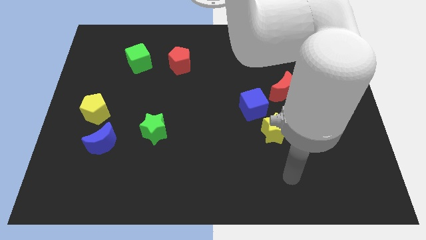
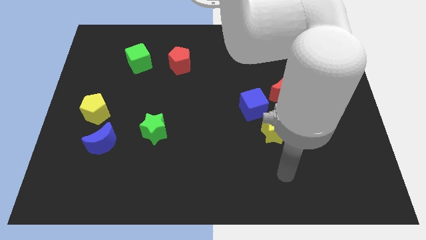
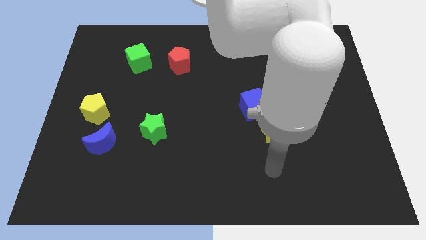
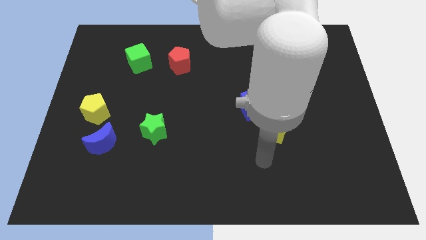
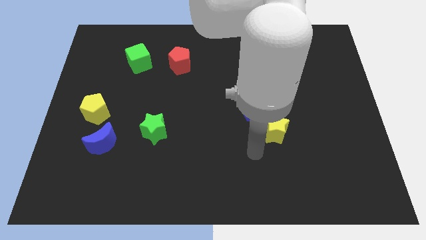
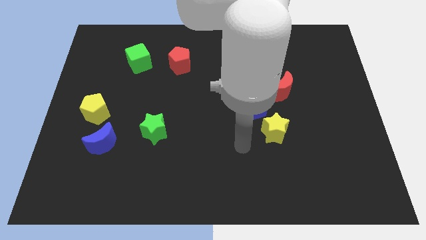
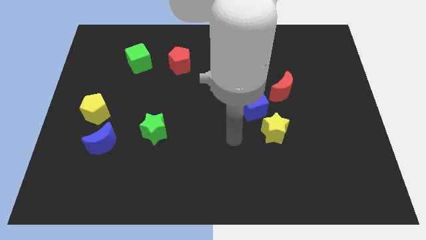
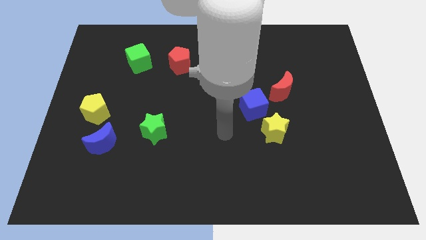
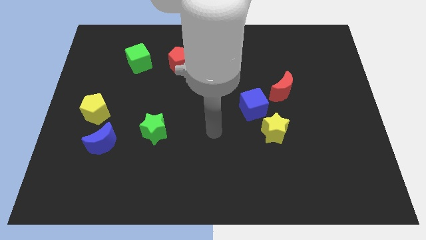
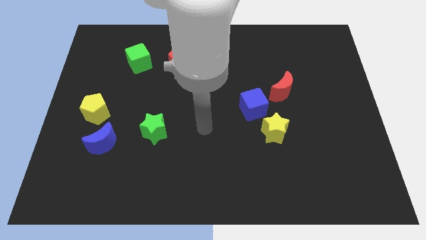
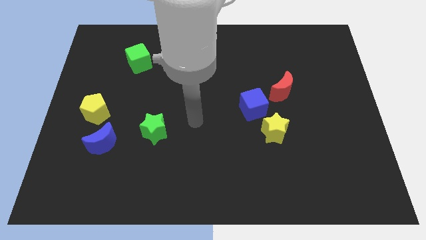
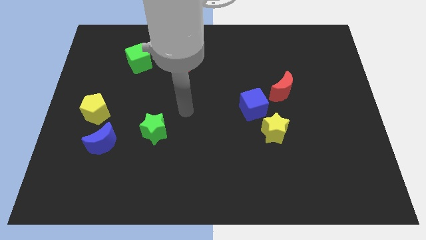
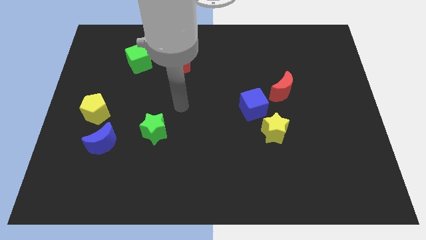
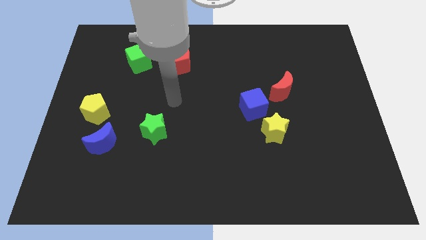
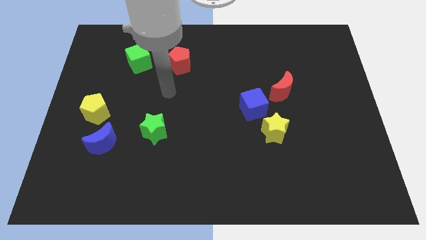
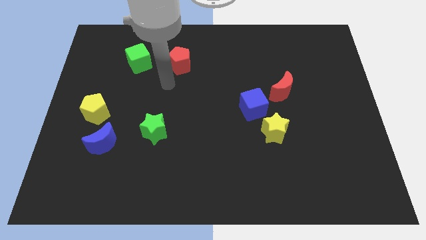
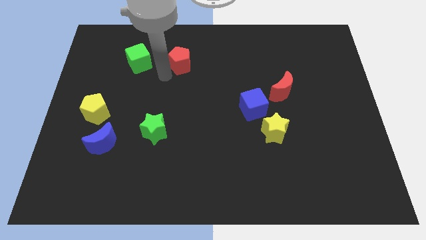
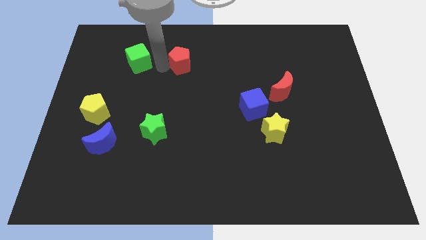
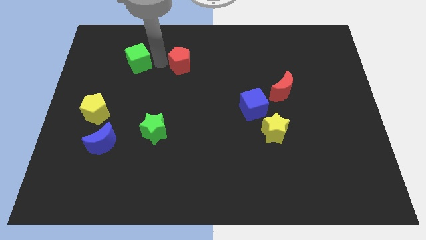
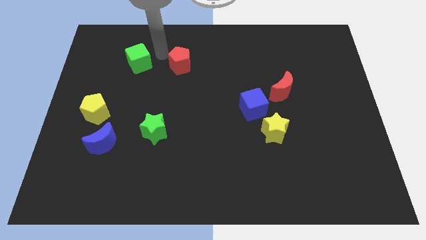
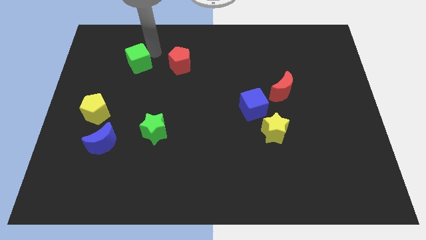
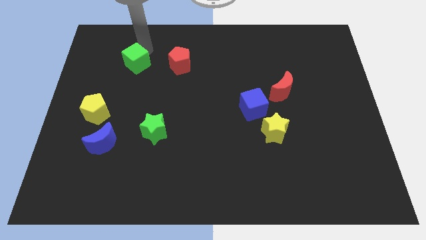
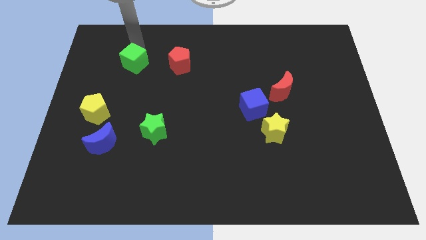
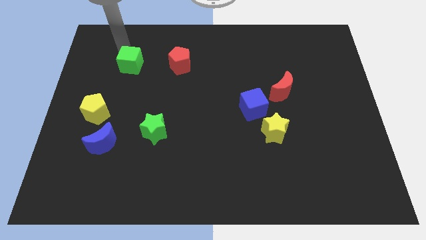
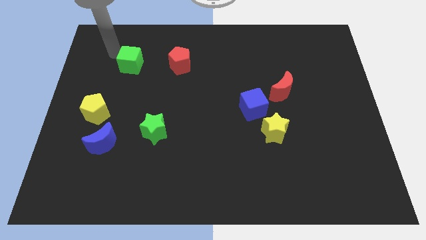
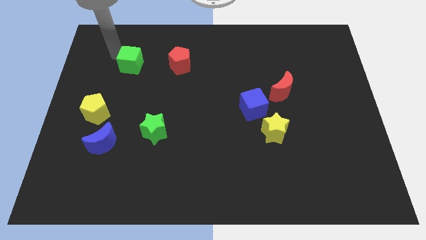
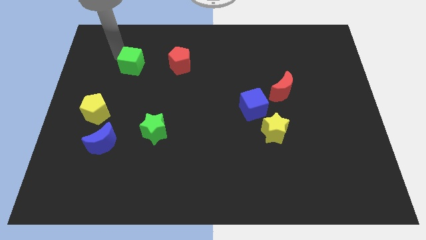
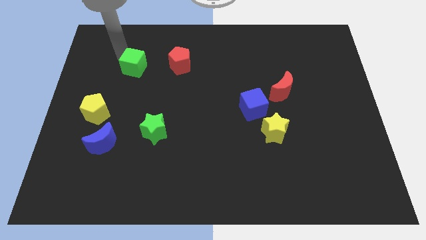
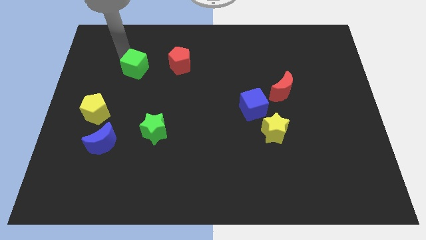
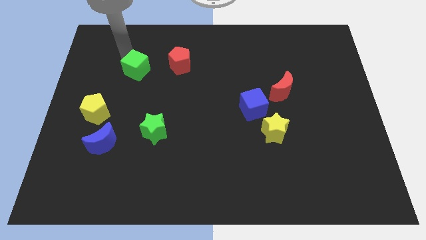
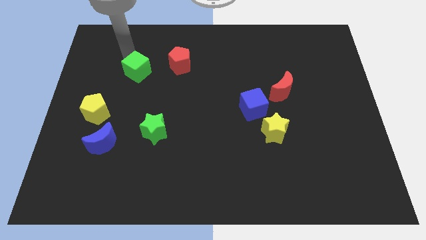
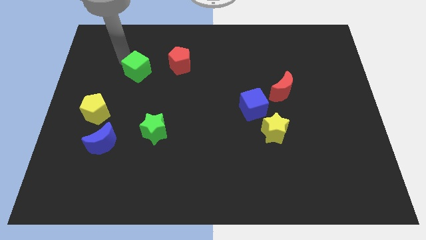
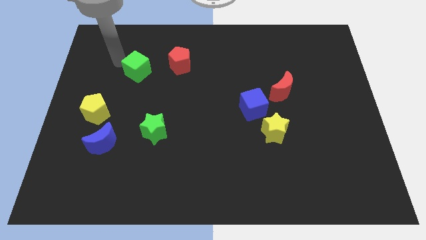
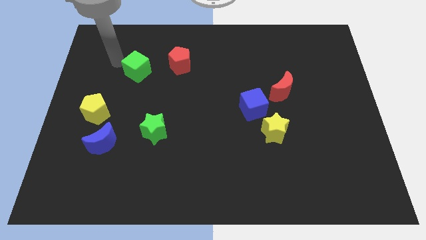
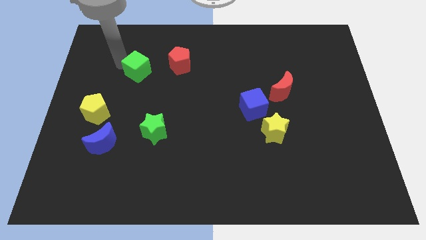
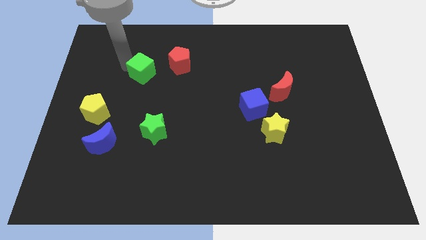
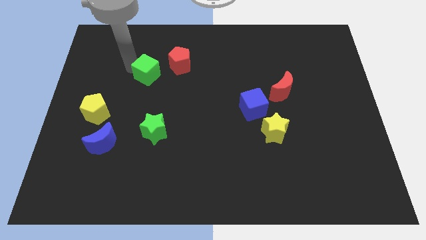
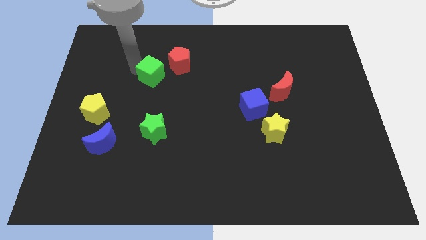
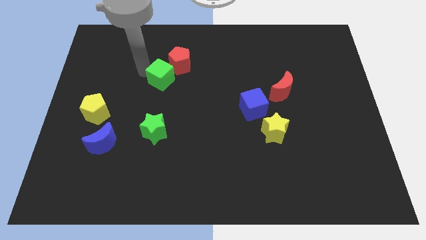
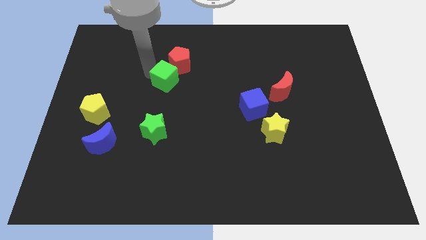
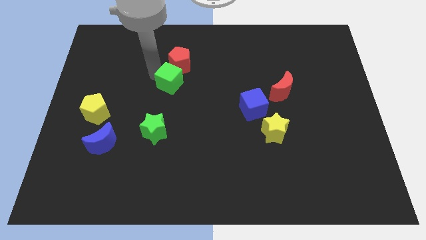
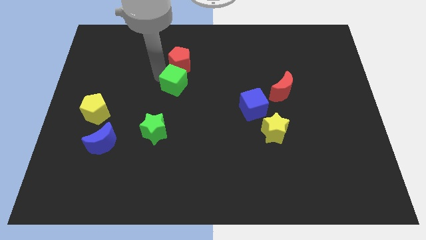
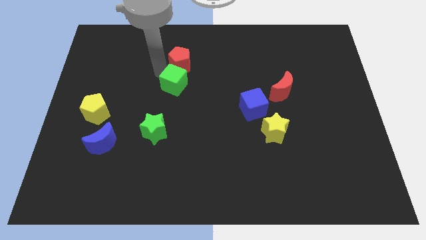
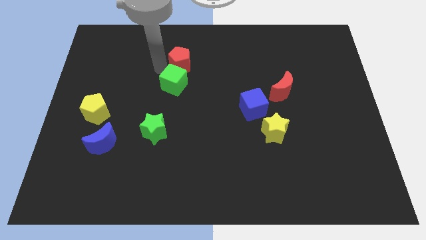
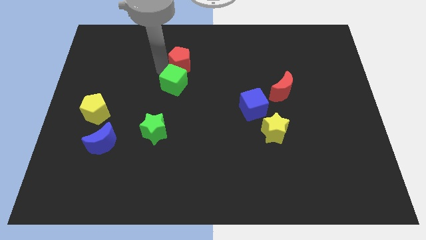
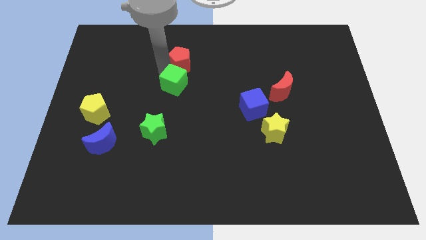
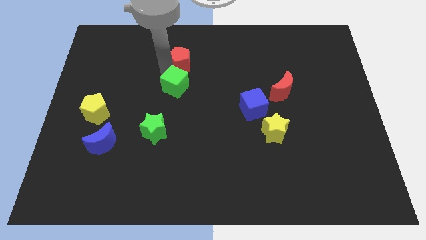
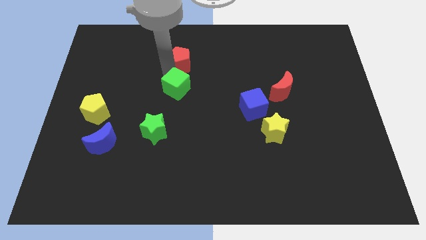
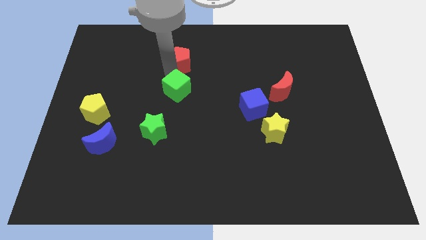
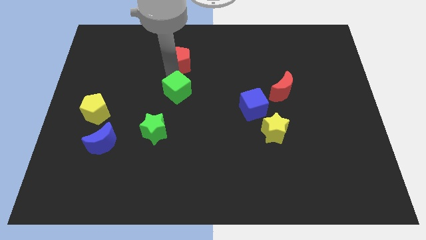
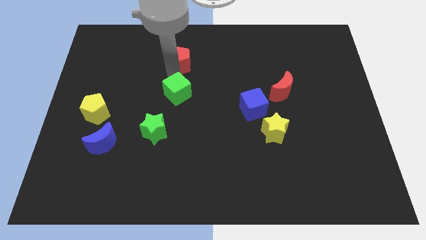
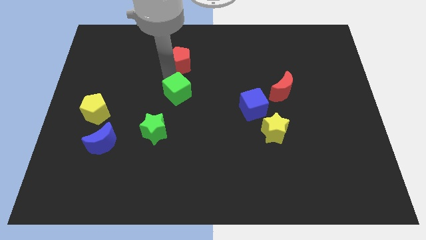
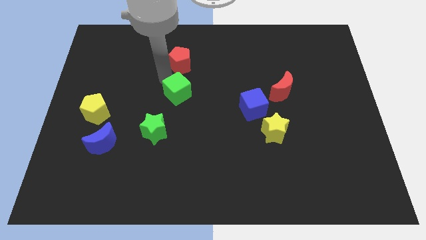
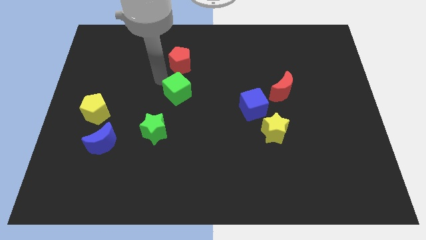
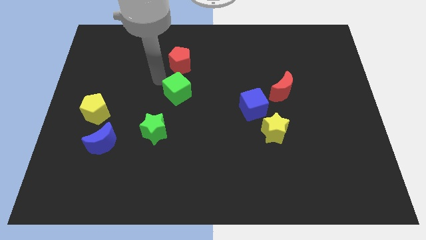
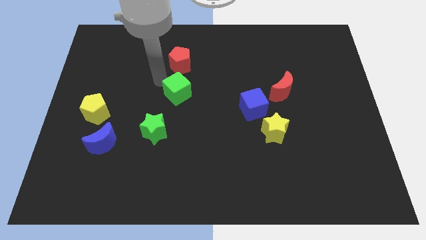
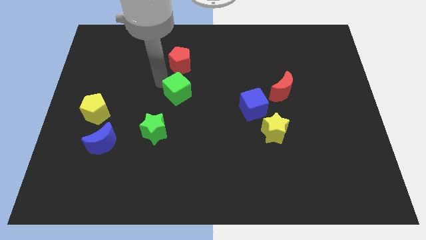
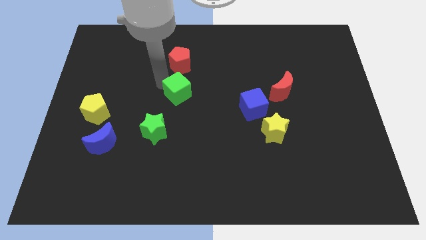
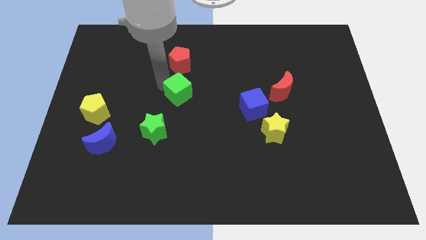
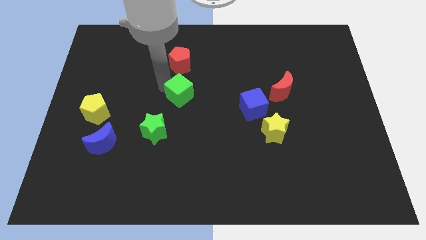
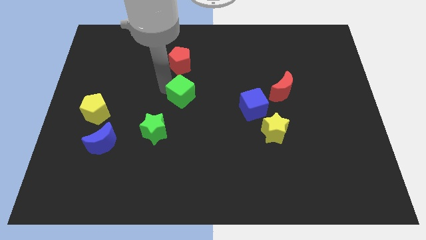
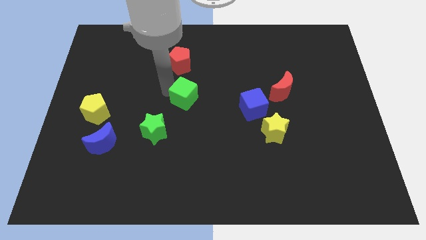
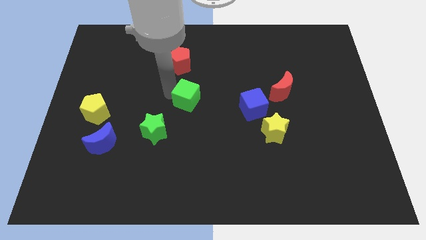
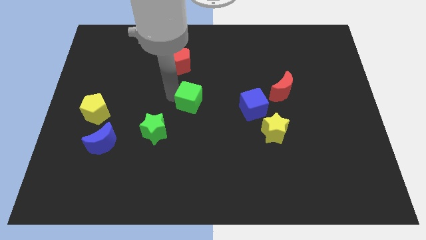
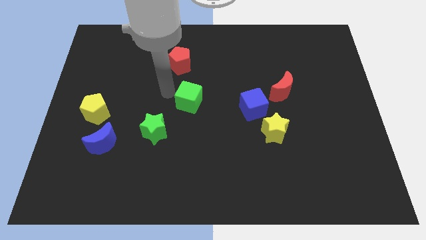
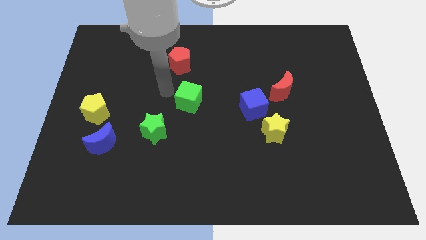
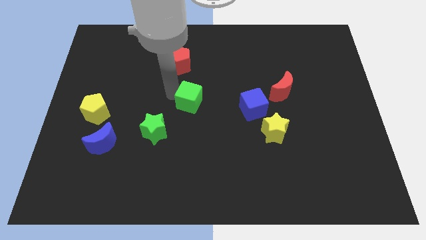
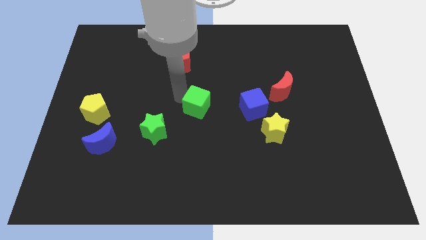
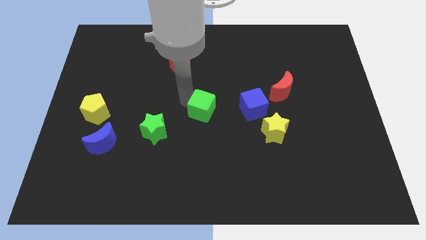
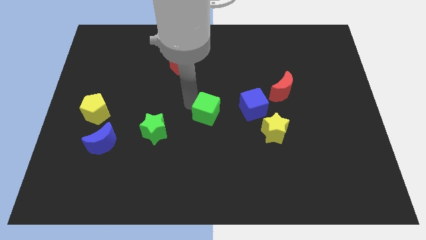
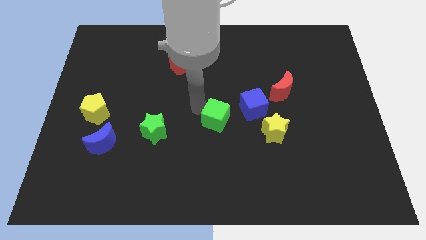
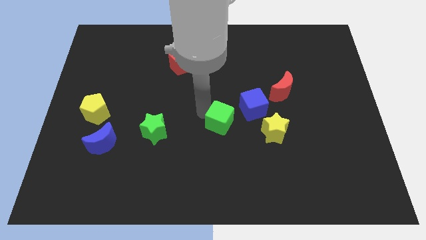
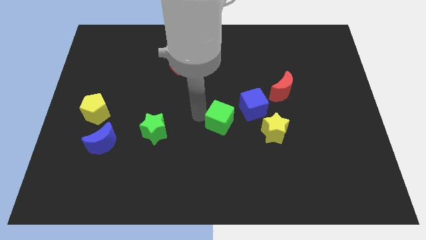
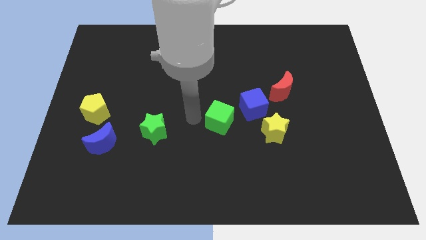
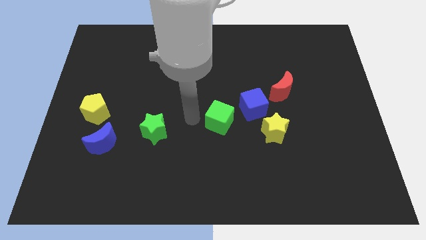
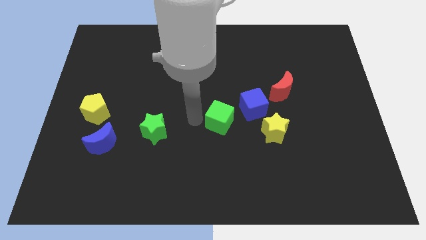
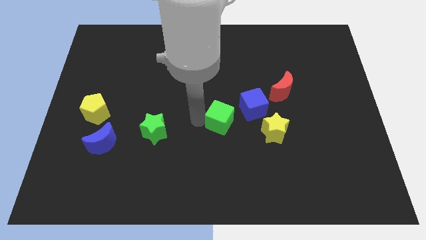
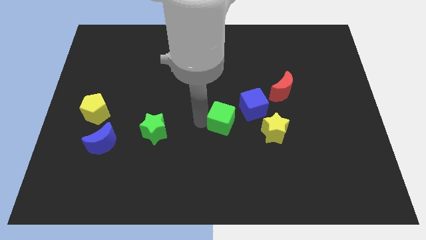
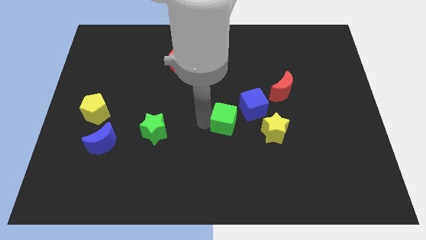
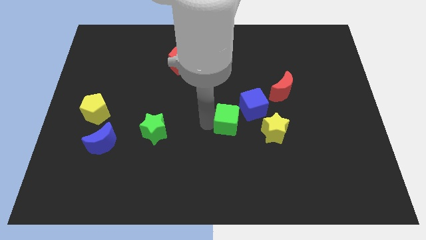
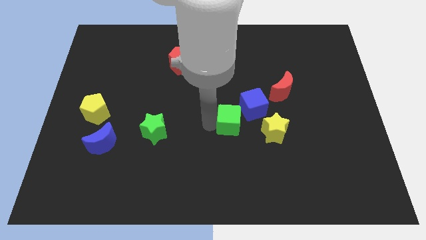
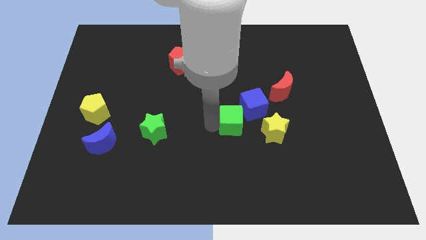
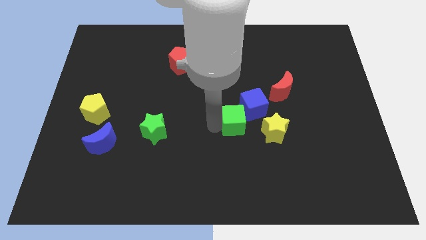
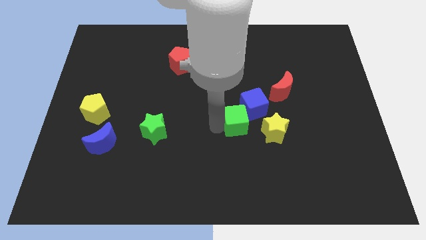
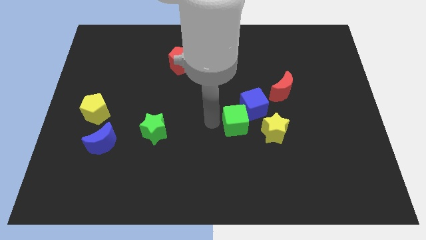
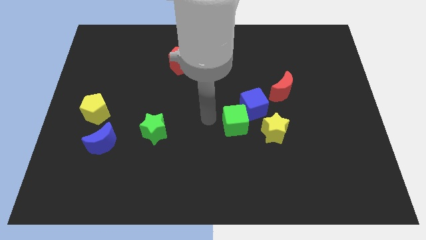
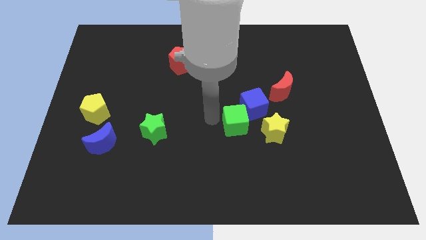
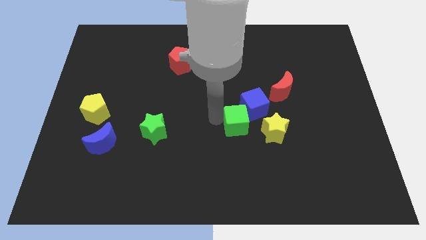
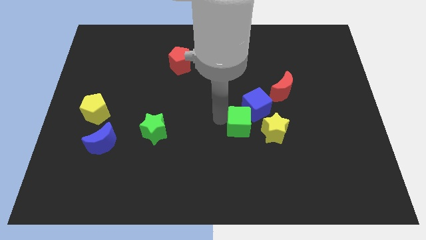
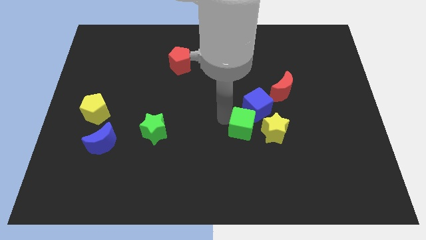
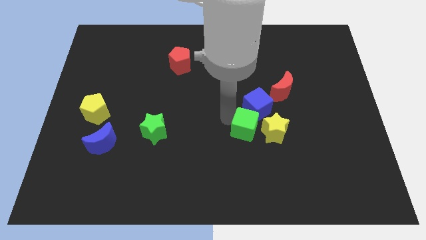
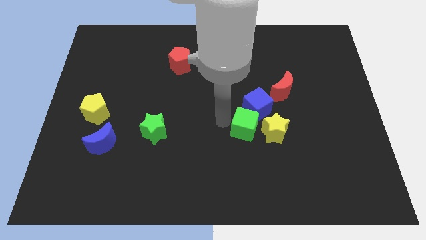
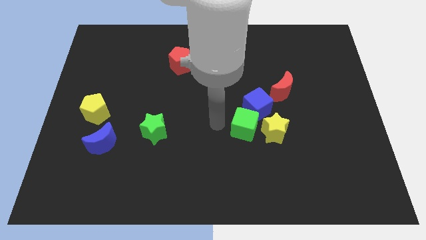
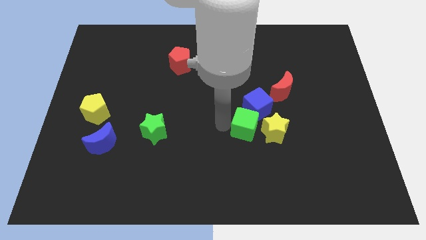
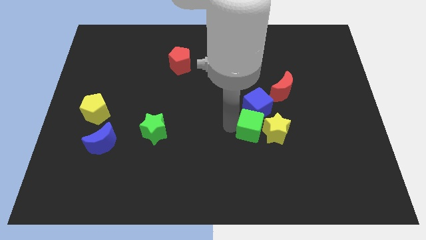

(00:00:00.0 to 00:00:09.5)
slide the green cube towards the yellow star
